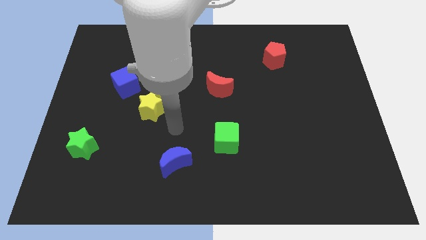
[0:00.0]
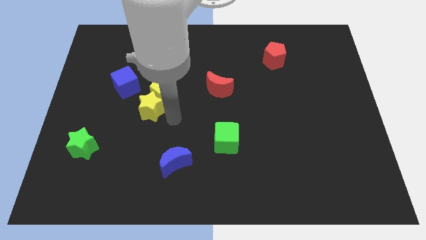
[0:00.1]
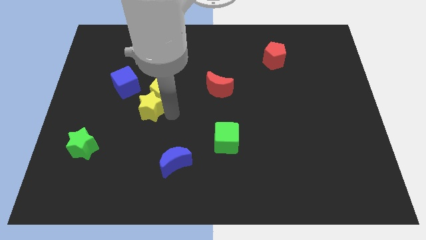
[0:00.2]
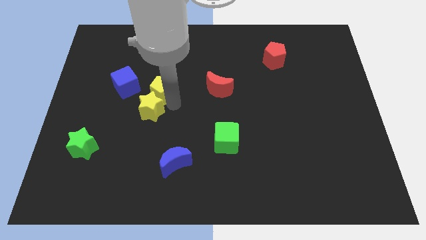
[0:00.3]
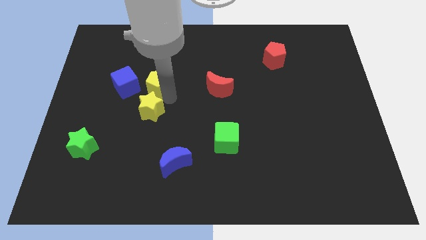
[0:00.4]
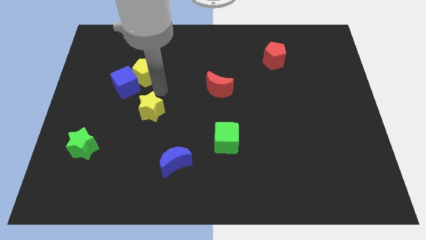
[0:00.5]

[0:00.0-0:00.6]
separate the yellow star from the yellow pentagon

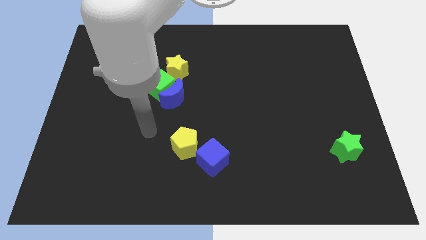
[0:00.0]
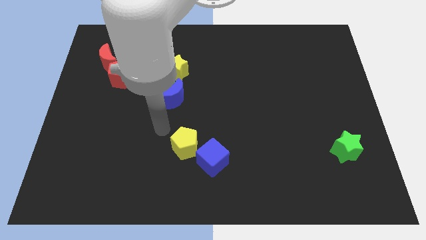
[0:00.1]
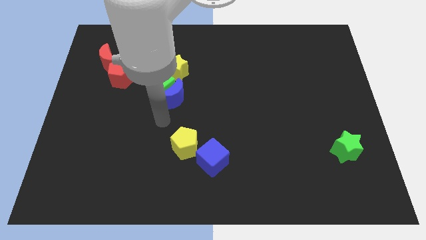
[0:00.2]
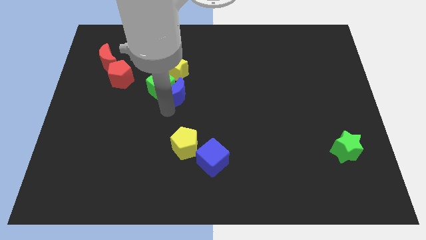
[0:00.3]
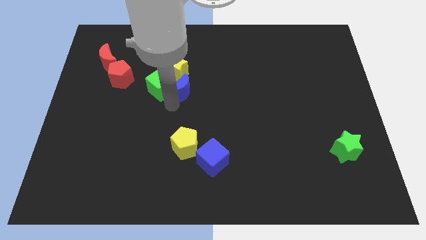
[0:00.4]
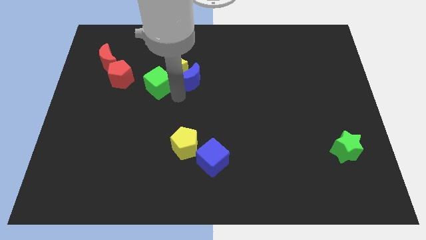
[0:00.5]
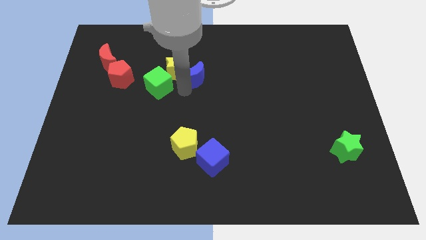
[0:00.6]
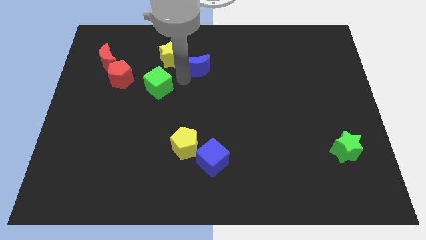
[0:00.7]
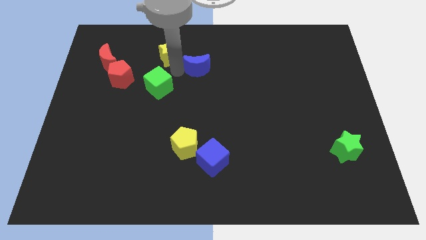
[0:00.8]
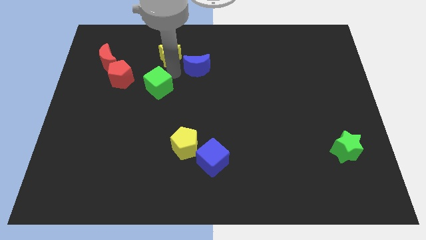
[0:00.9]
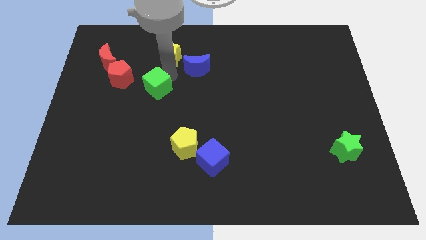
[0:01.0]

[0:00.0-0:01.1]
move the green cube away from the blue moon and yellow star

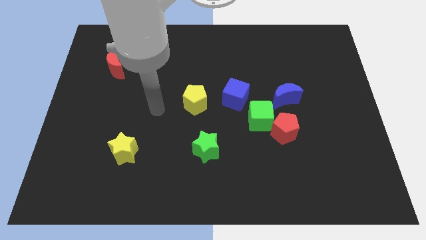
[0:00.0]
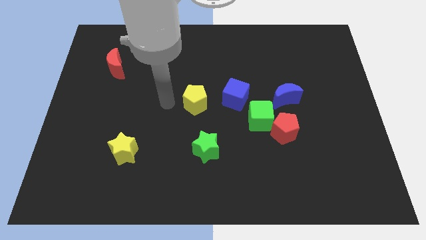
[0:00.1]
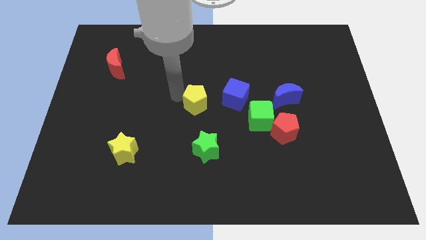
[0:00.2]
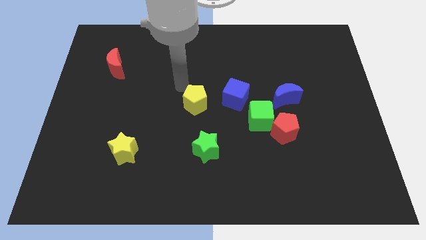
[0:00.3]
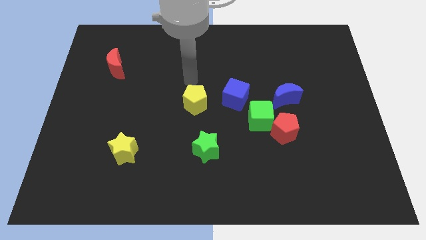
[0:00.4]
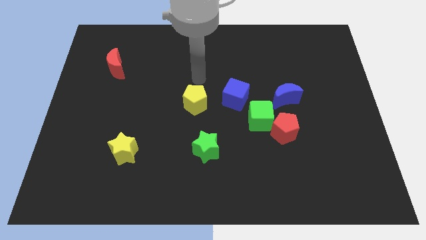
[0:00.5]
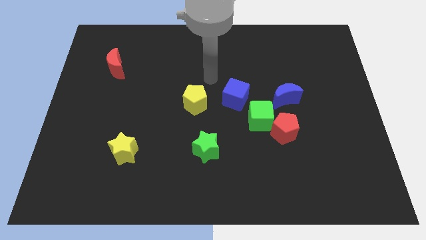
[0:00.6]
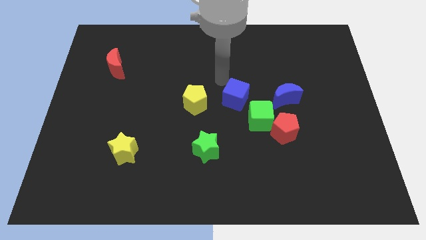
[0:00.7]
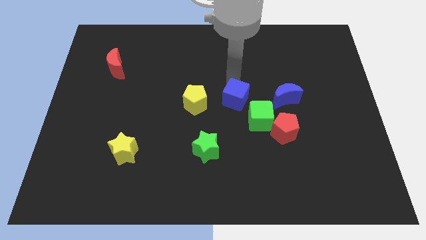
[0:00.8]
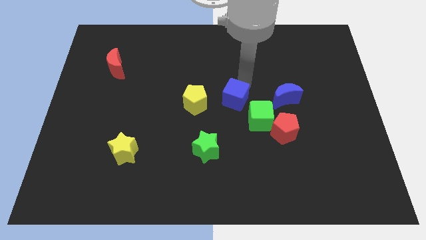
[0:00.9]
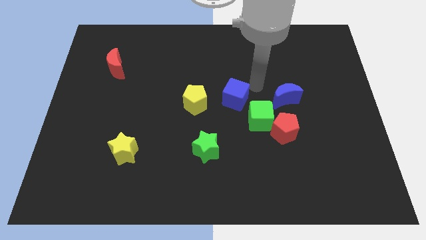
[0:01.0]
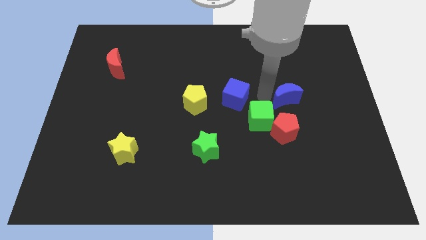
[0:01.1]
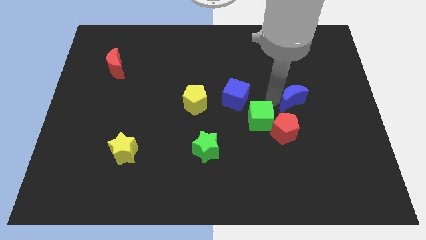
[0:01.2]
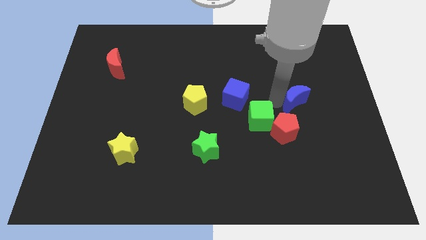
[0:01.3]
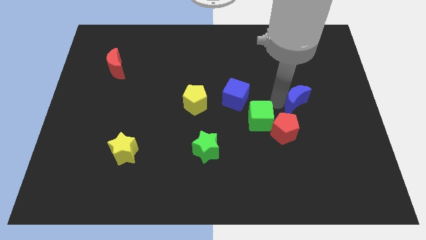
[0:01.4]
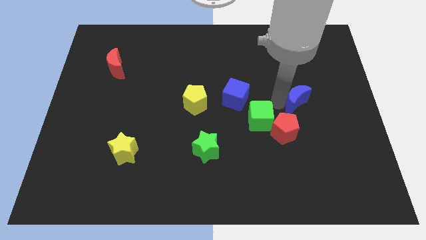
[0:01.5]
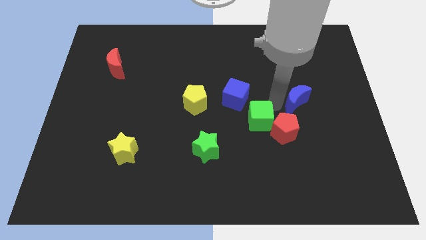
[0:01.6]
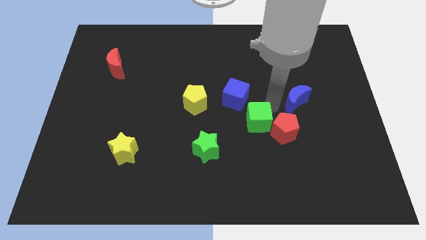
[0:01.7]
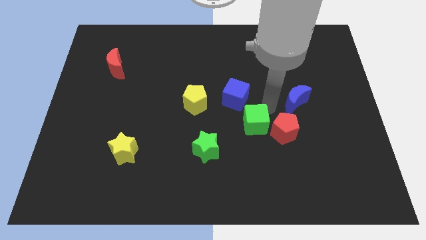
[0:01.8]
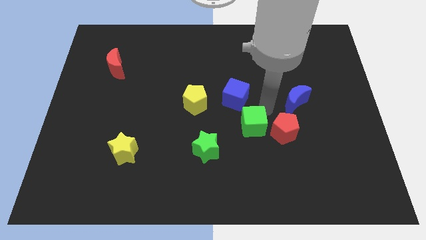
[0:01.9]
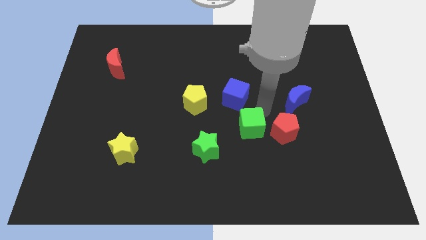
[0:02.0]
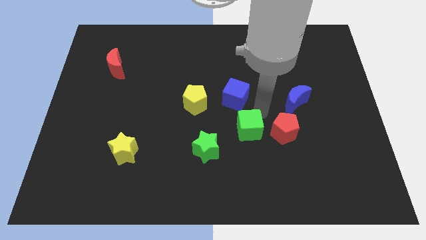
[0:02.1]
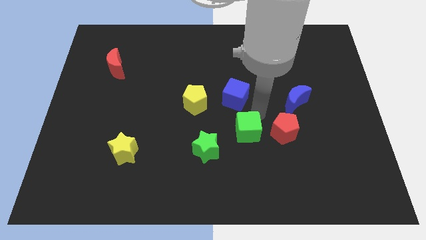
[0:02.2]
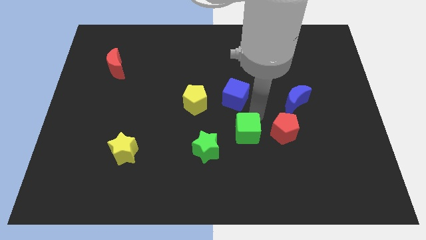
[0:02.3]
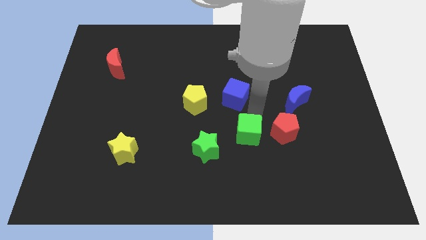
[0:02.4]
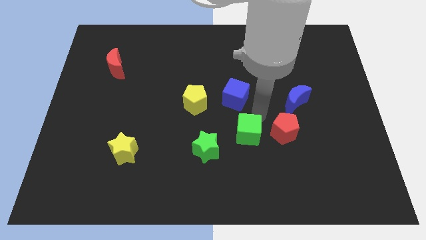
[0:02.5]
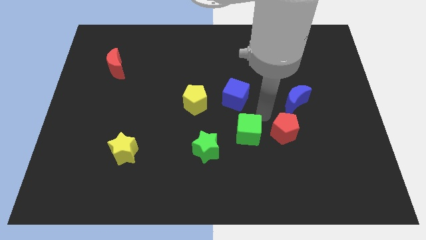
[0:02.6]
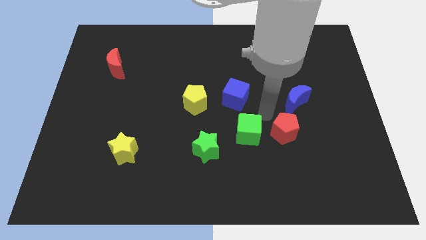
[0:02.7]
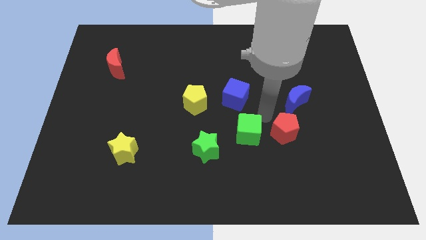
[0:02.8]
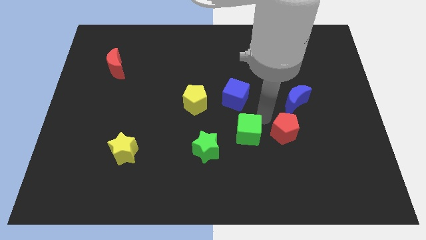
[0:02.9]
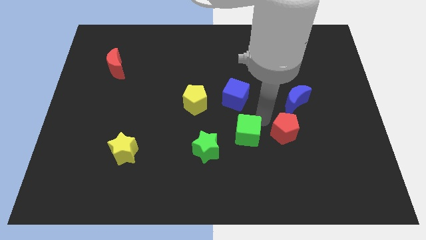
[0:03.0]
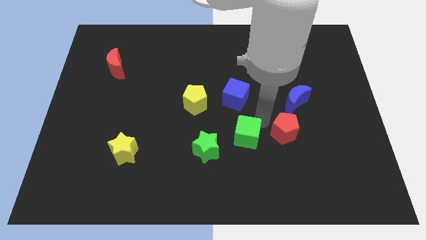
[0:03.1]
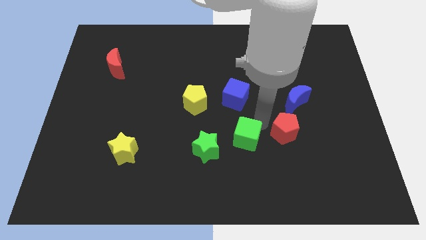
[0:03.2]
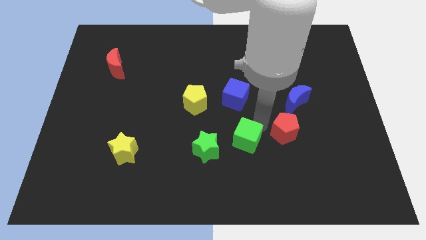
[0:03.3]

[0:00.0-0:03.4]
move the green cube away from the group of blocks

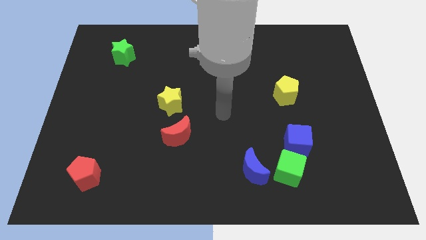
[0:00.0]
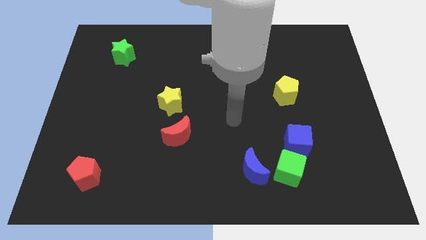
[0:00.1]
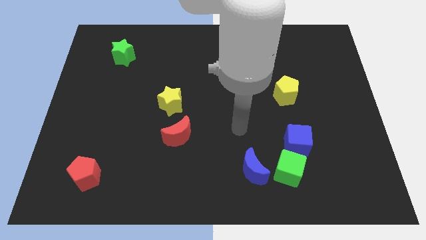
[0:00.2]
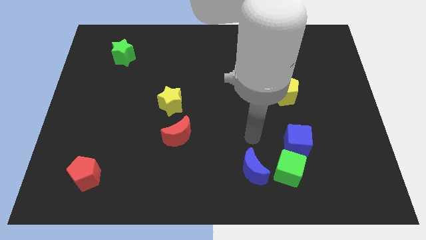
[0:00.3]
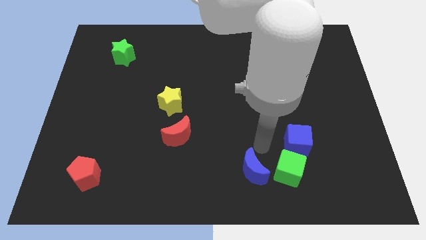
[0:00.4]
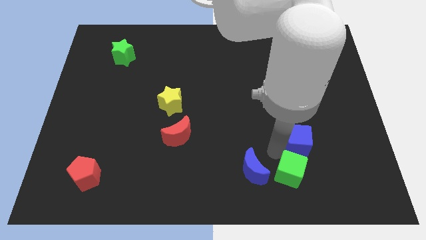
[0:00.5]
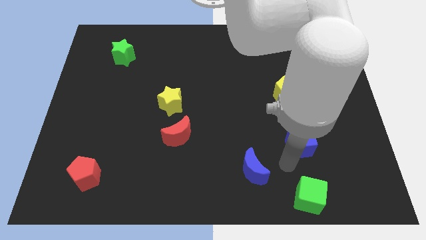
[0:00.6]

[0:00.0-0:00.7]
move the blue cube away from the green cube

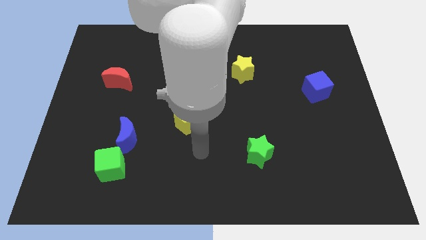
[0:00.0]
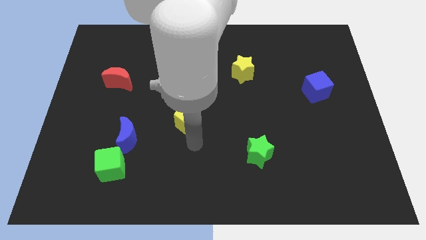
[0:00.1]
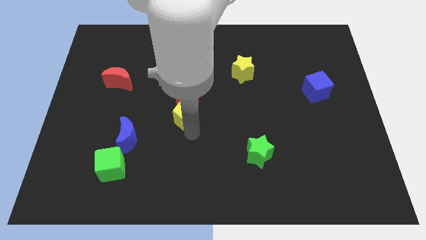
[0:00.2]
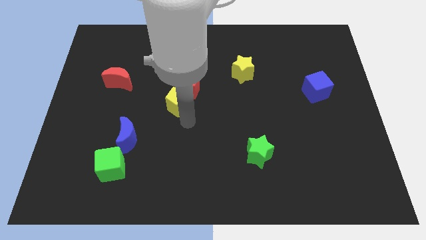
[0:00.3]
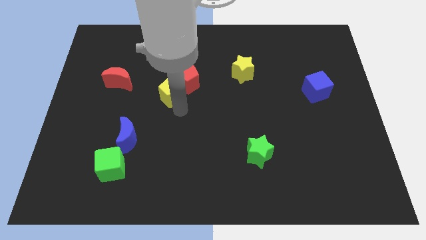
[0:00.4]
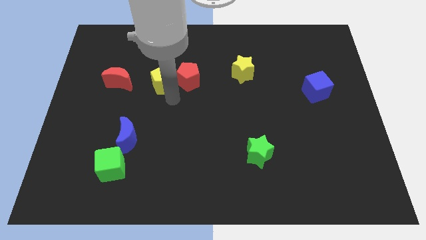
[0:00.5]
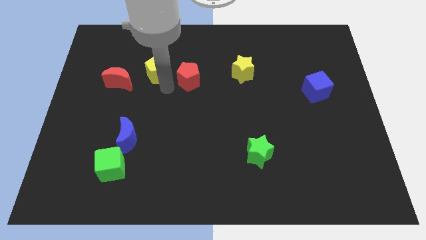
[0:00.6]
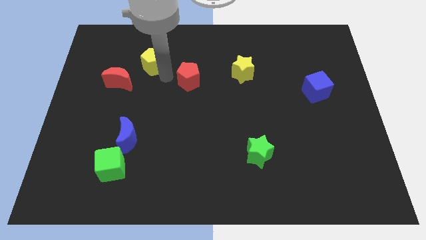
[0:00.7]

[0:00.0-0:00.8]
pull the red pentagon apart from the yellow pentagon

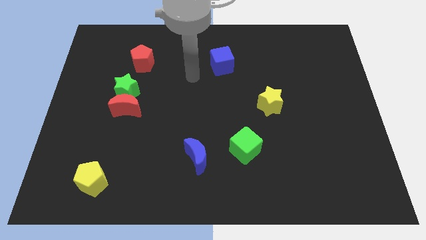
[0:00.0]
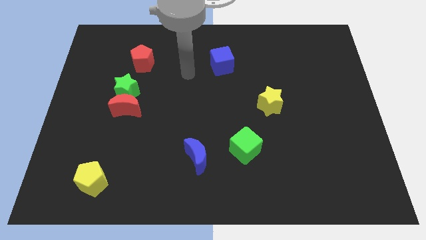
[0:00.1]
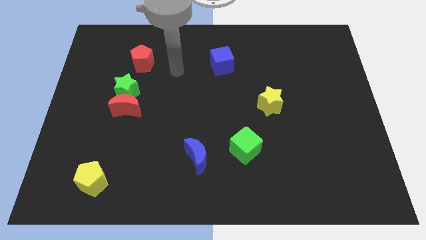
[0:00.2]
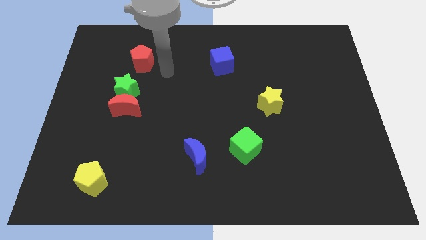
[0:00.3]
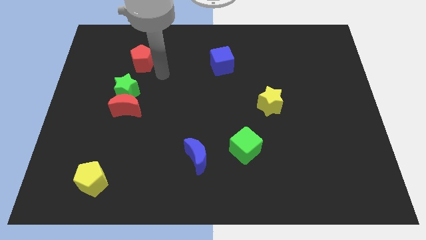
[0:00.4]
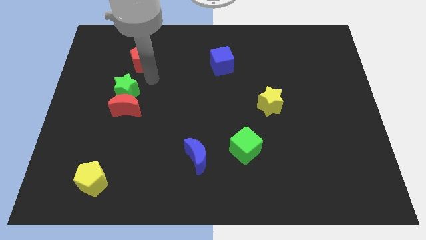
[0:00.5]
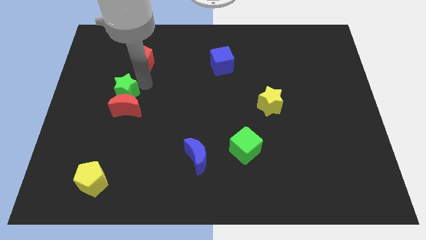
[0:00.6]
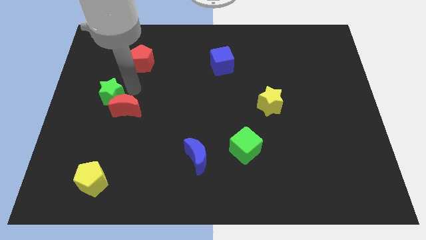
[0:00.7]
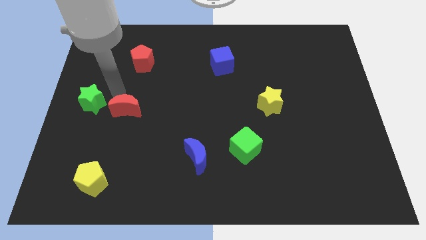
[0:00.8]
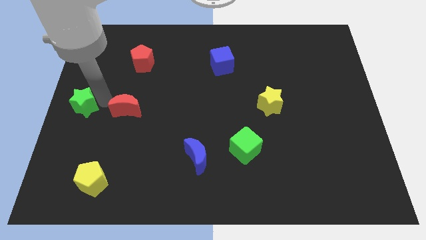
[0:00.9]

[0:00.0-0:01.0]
pull the red moon apart from the green star

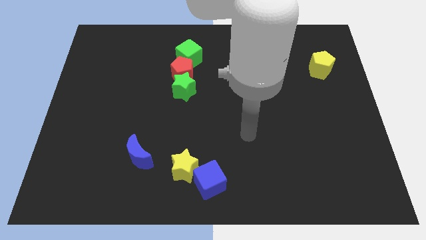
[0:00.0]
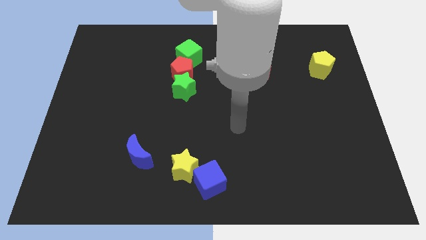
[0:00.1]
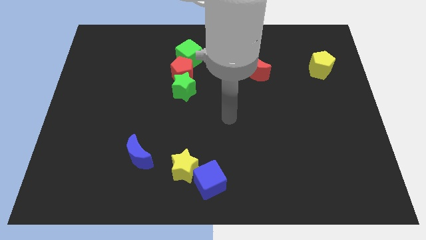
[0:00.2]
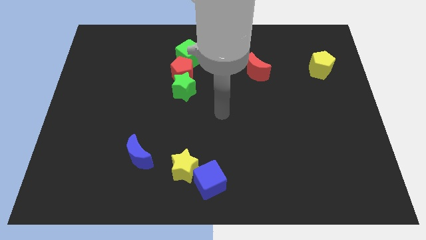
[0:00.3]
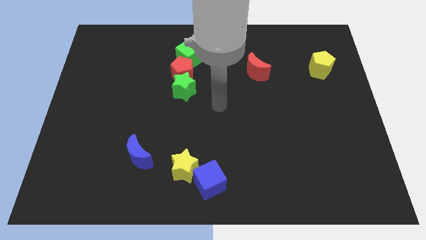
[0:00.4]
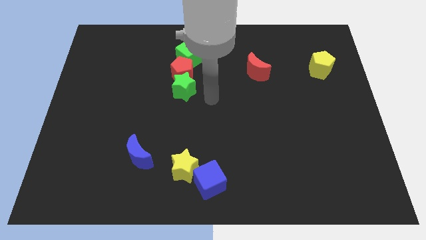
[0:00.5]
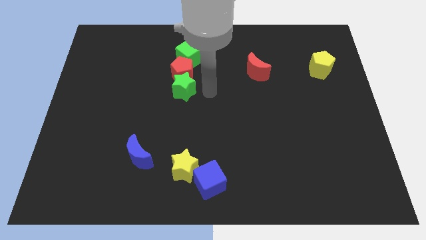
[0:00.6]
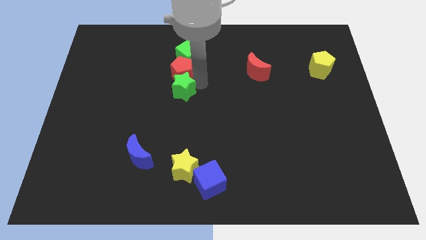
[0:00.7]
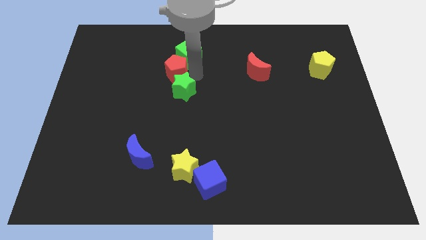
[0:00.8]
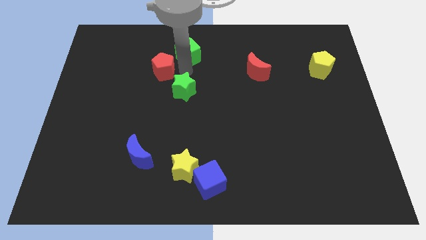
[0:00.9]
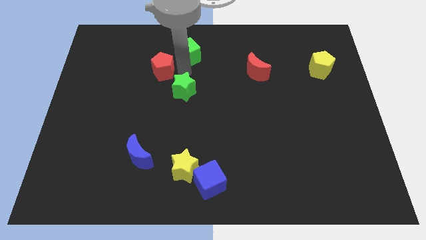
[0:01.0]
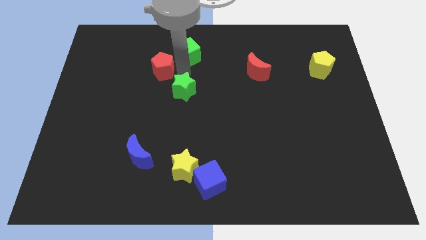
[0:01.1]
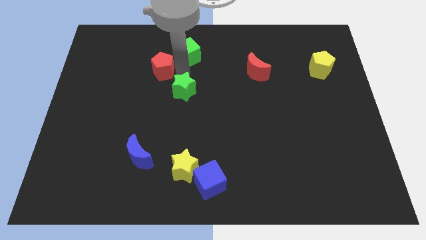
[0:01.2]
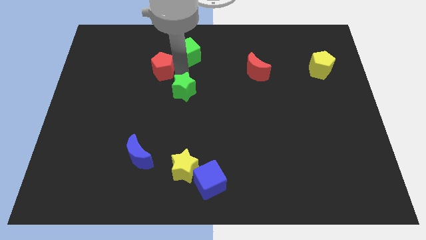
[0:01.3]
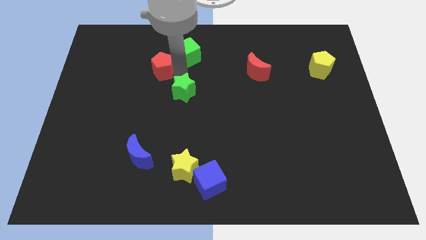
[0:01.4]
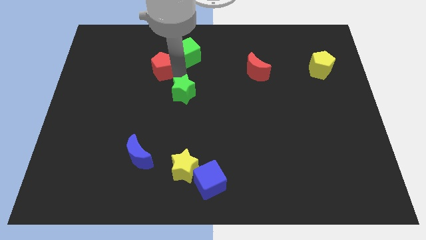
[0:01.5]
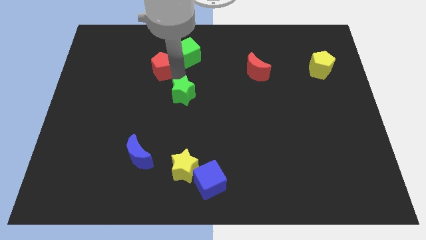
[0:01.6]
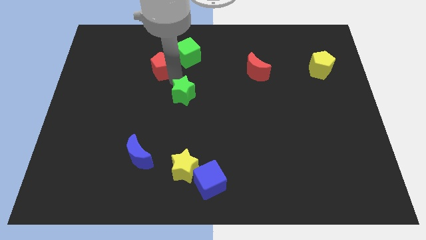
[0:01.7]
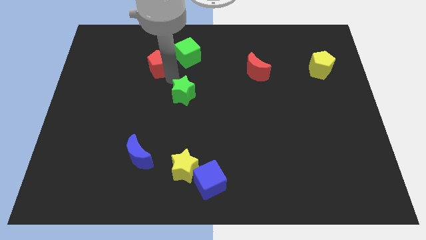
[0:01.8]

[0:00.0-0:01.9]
separate the green star from the red pentagon
